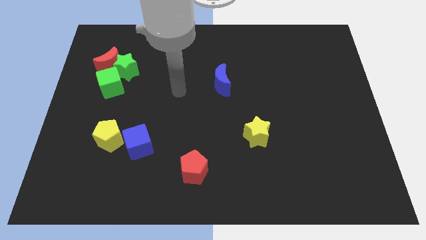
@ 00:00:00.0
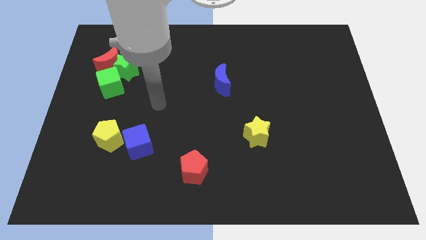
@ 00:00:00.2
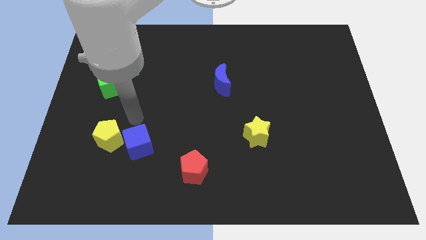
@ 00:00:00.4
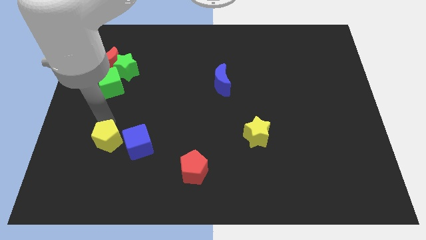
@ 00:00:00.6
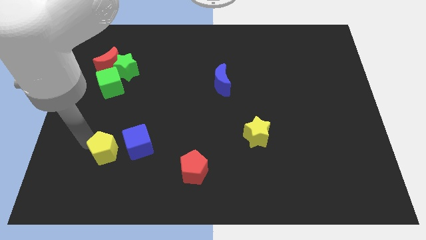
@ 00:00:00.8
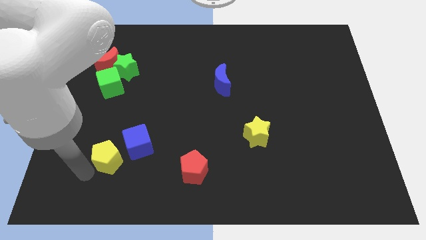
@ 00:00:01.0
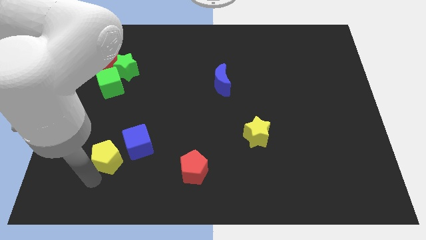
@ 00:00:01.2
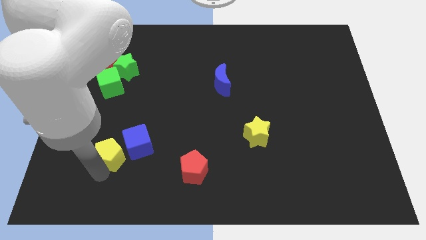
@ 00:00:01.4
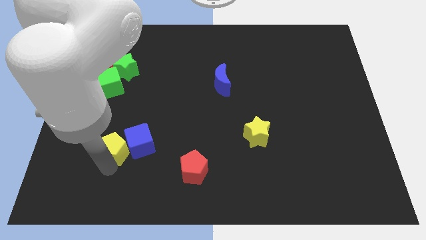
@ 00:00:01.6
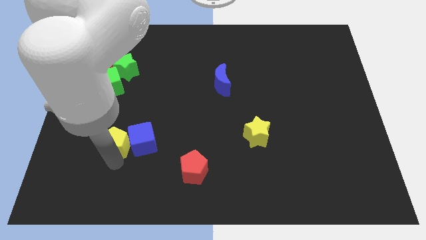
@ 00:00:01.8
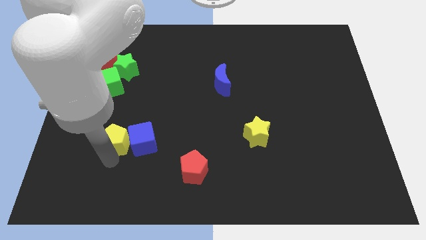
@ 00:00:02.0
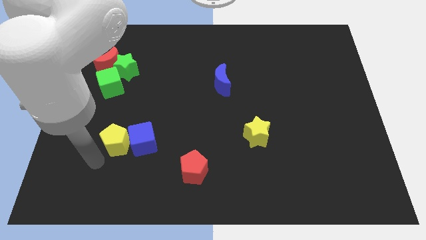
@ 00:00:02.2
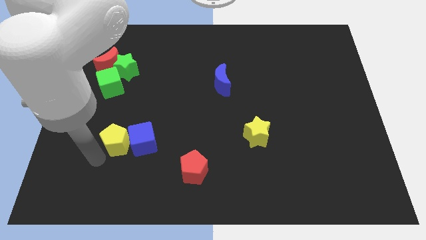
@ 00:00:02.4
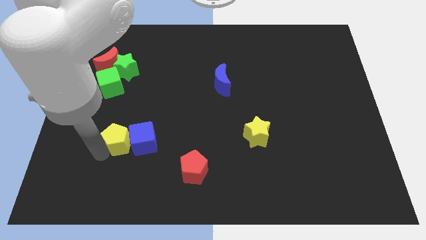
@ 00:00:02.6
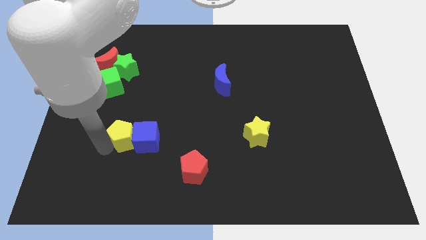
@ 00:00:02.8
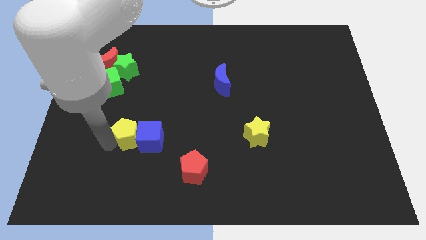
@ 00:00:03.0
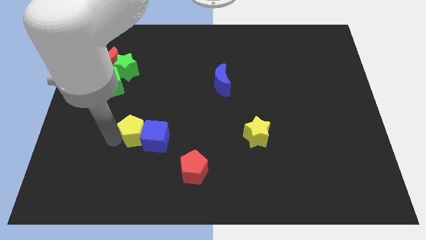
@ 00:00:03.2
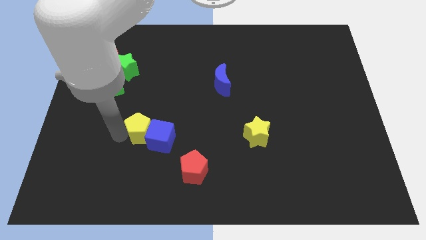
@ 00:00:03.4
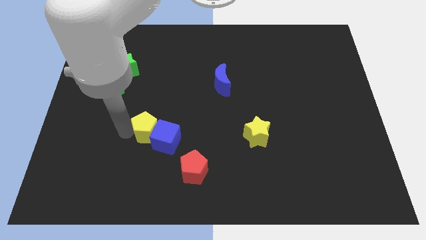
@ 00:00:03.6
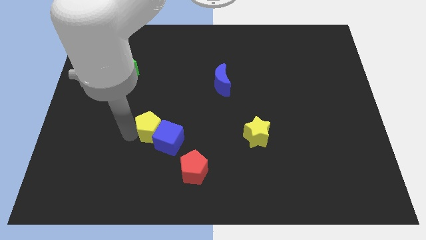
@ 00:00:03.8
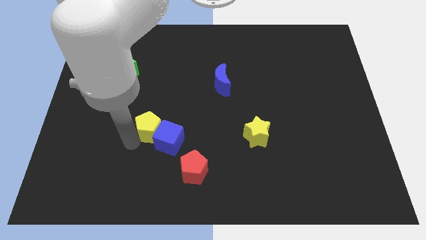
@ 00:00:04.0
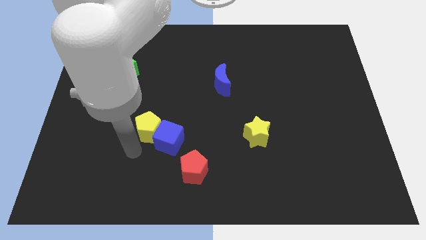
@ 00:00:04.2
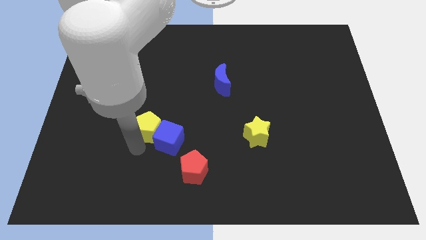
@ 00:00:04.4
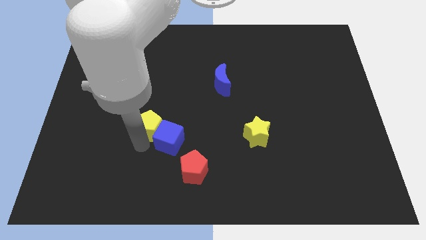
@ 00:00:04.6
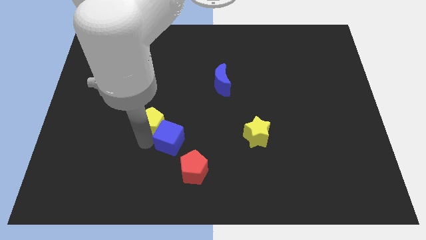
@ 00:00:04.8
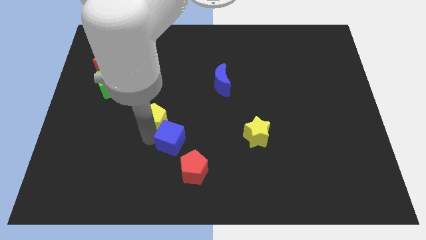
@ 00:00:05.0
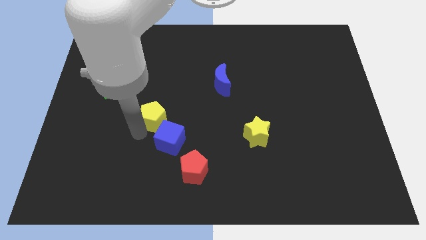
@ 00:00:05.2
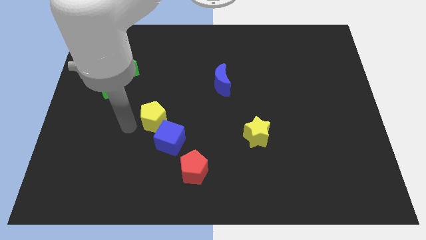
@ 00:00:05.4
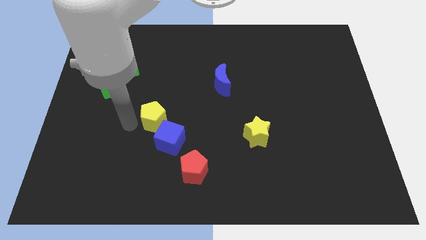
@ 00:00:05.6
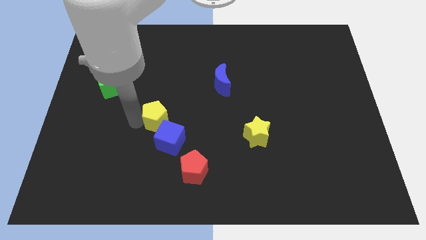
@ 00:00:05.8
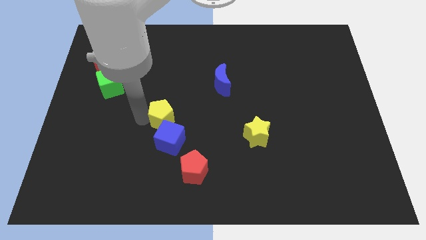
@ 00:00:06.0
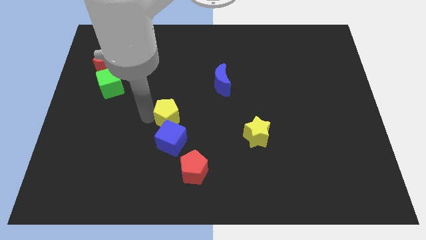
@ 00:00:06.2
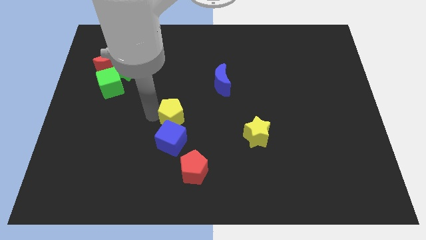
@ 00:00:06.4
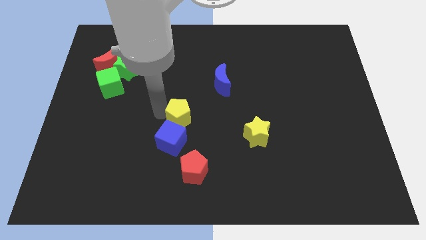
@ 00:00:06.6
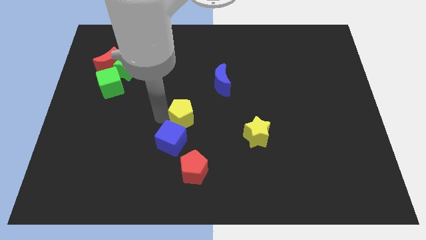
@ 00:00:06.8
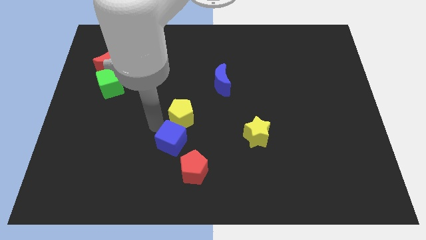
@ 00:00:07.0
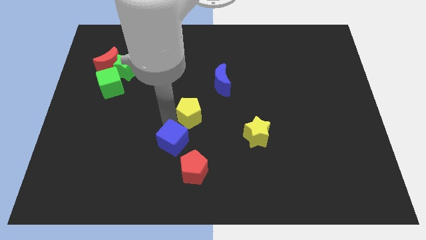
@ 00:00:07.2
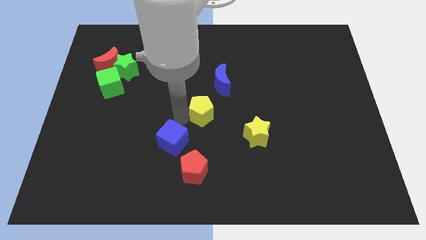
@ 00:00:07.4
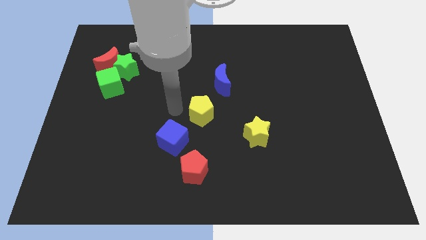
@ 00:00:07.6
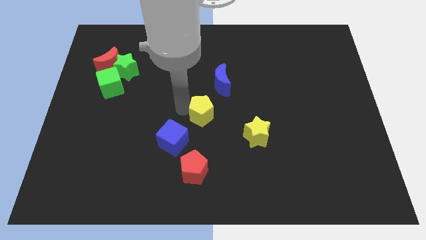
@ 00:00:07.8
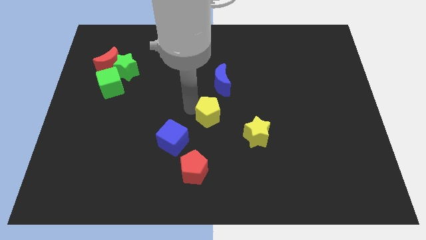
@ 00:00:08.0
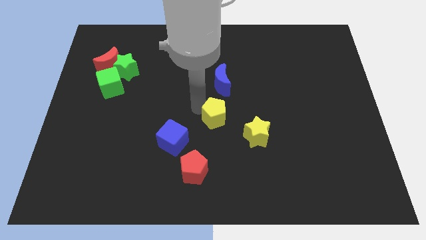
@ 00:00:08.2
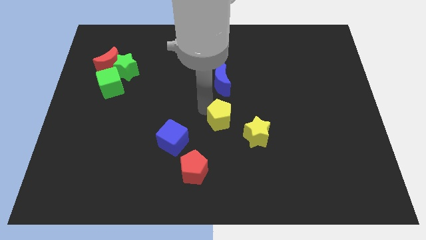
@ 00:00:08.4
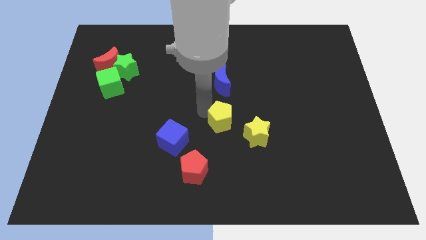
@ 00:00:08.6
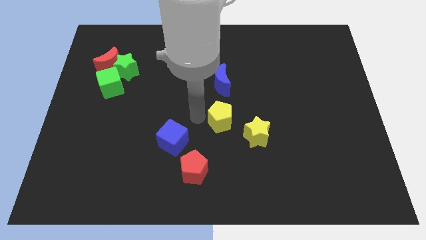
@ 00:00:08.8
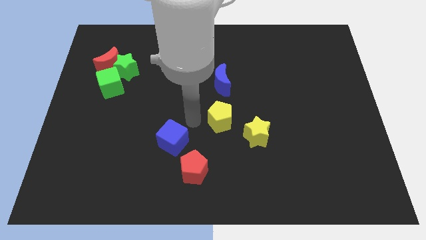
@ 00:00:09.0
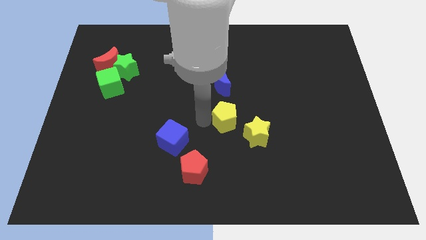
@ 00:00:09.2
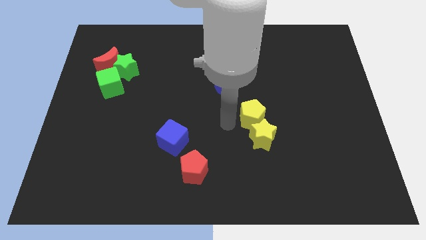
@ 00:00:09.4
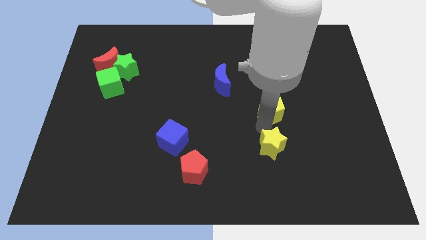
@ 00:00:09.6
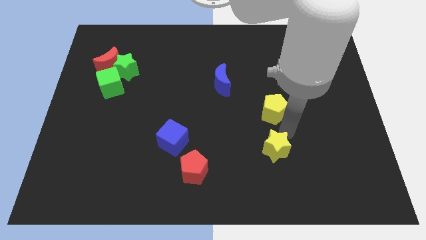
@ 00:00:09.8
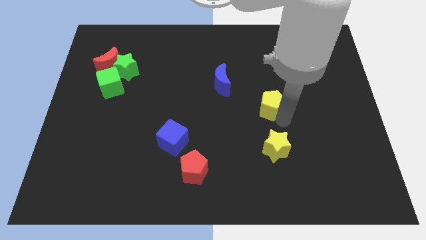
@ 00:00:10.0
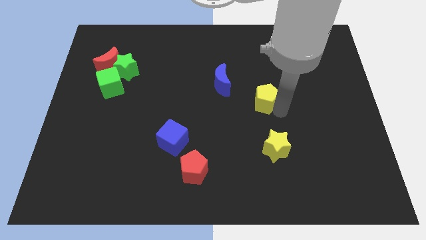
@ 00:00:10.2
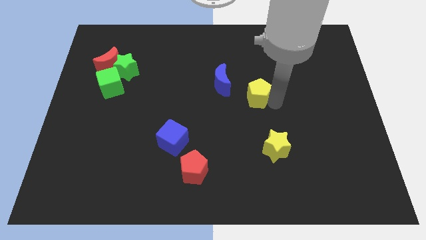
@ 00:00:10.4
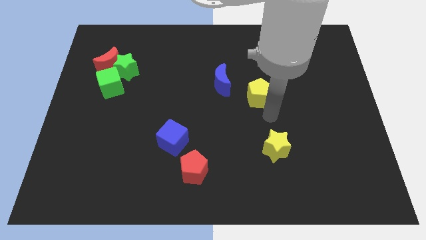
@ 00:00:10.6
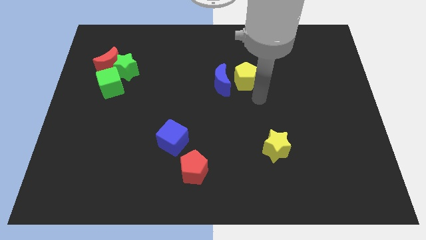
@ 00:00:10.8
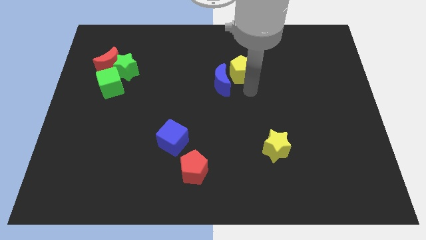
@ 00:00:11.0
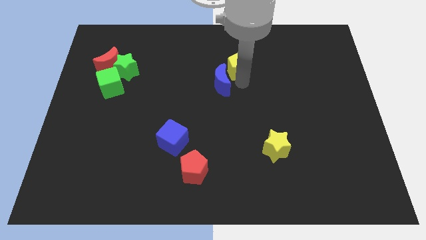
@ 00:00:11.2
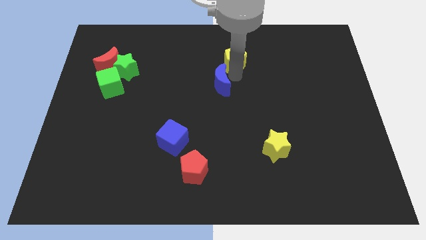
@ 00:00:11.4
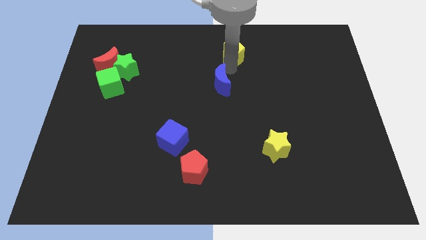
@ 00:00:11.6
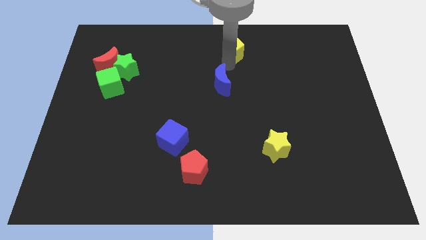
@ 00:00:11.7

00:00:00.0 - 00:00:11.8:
put the yellow pentagon to the top side
